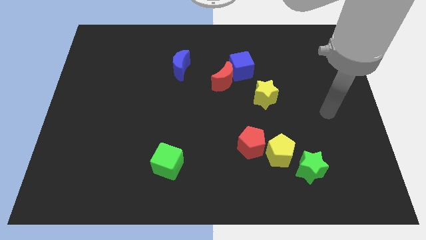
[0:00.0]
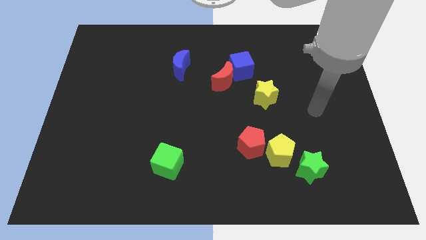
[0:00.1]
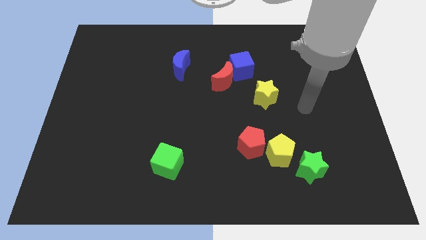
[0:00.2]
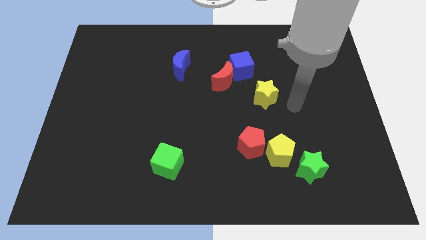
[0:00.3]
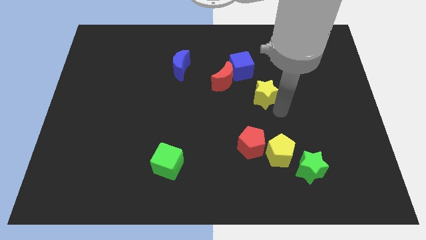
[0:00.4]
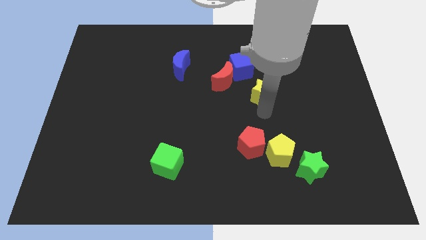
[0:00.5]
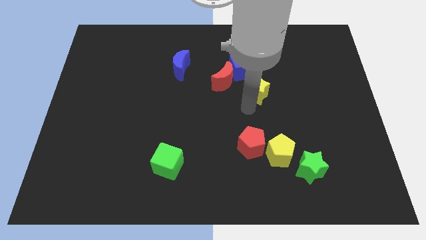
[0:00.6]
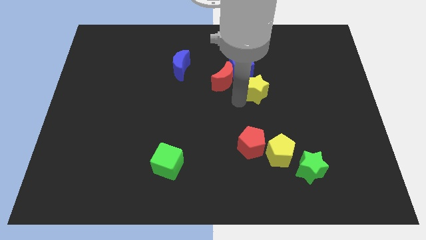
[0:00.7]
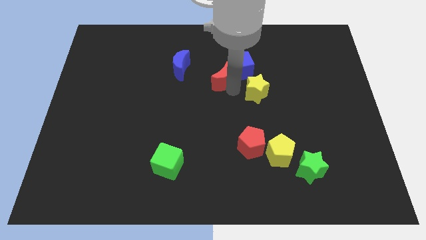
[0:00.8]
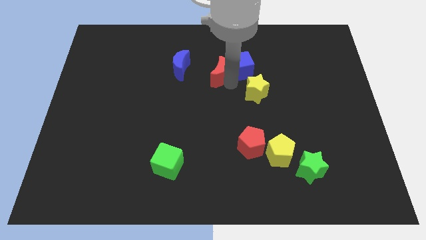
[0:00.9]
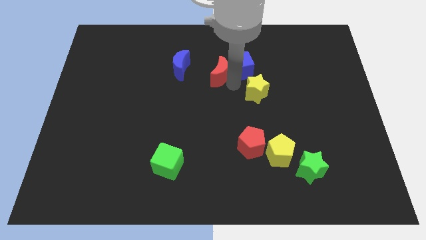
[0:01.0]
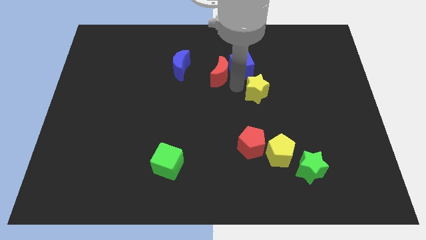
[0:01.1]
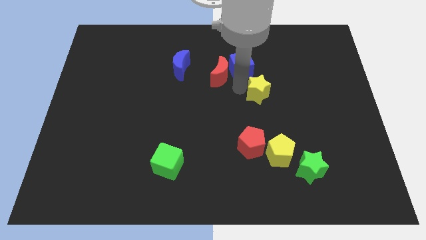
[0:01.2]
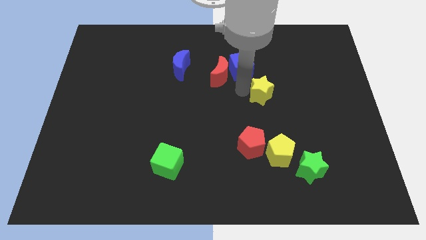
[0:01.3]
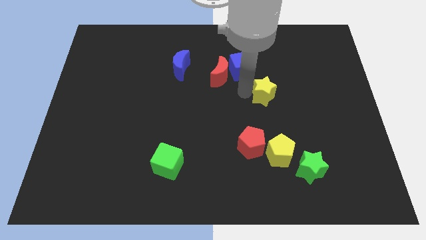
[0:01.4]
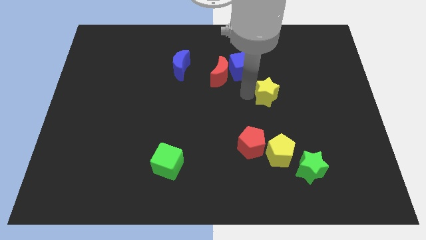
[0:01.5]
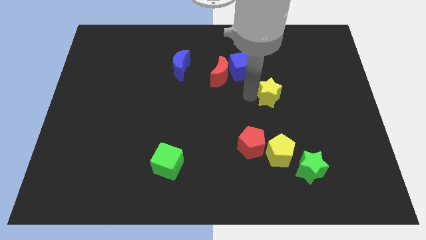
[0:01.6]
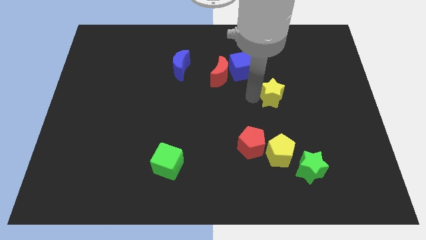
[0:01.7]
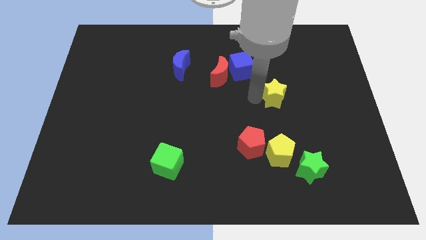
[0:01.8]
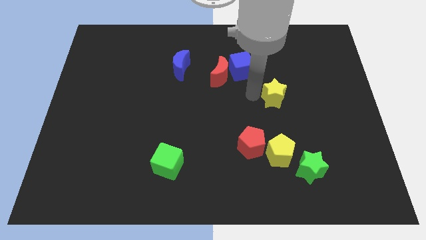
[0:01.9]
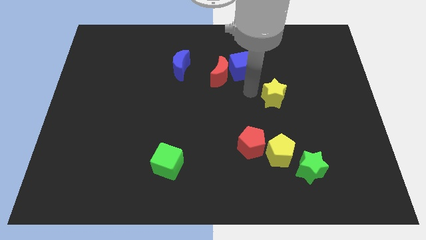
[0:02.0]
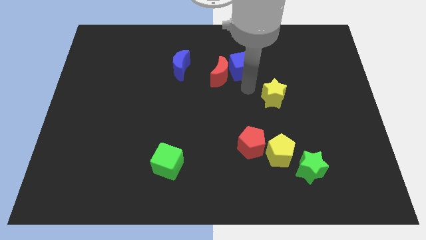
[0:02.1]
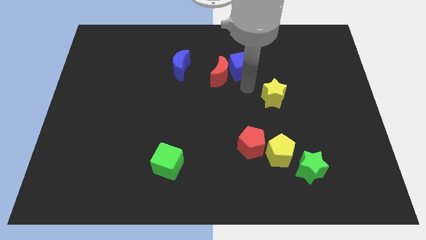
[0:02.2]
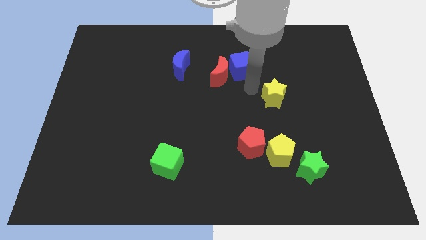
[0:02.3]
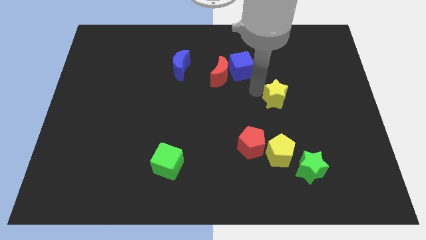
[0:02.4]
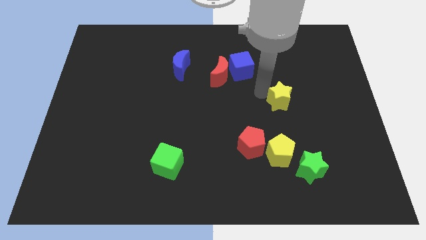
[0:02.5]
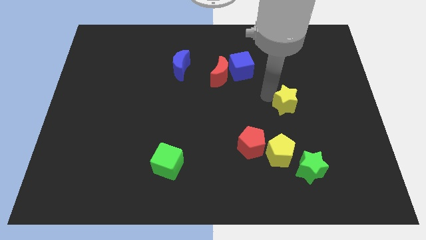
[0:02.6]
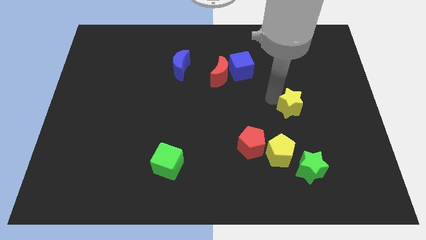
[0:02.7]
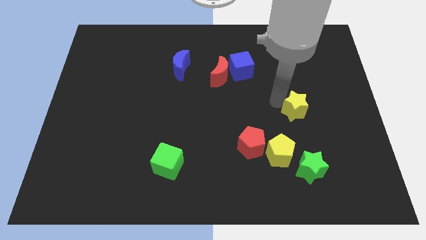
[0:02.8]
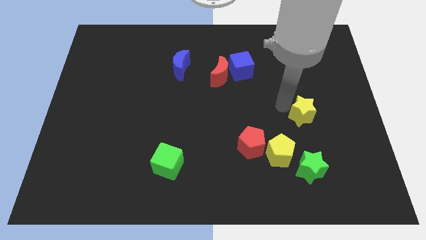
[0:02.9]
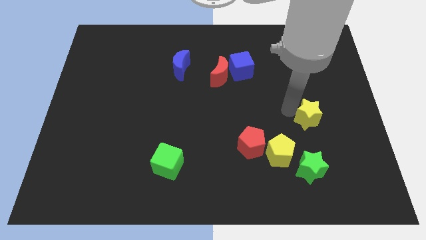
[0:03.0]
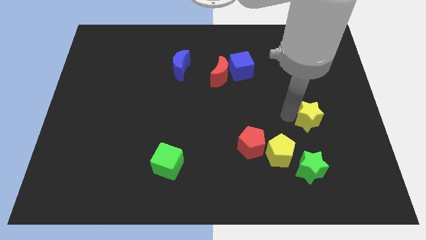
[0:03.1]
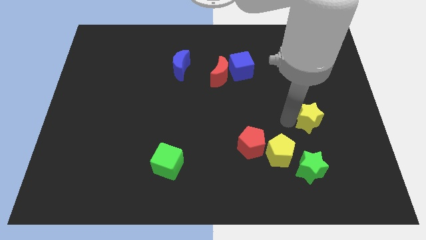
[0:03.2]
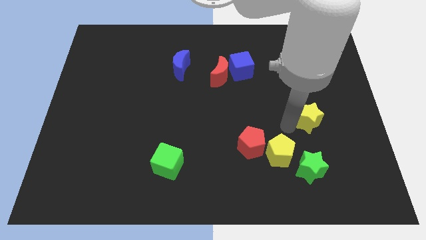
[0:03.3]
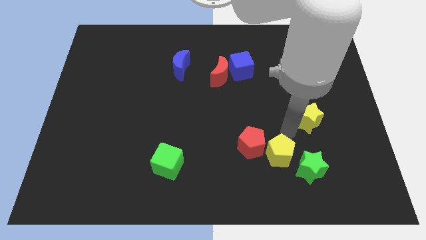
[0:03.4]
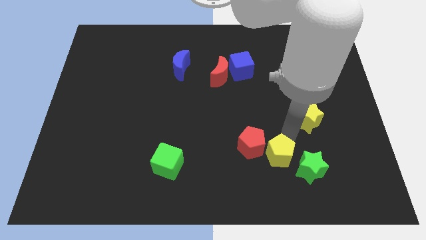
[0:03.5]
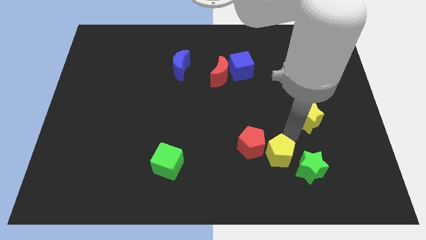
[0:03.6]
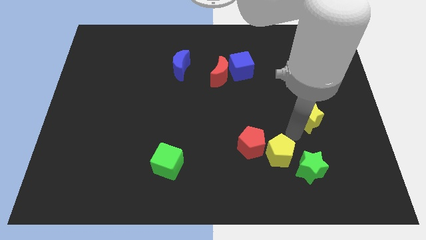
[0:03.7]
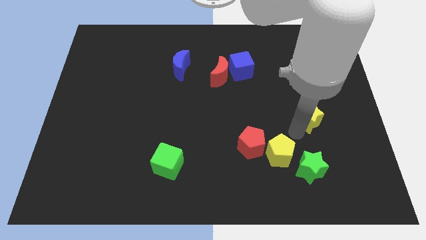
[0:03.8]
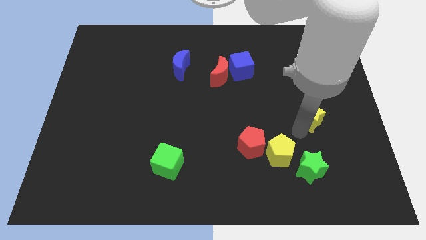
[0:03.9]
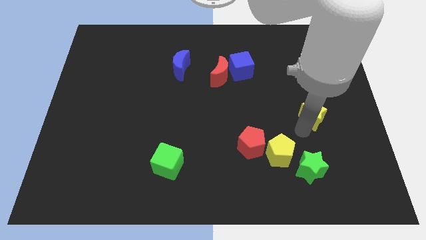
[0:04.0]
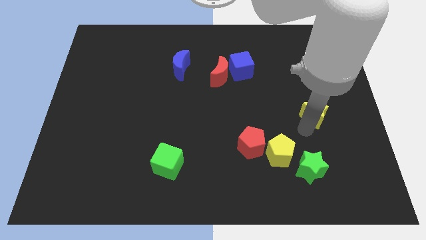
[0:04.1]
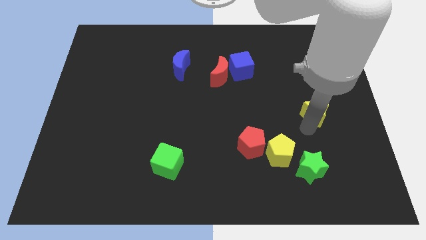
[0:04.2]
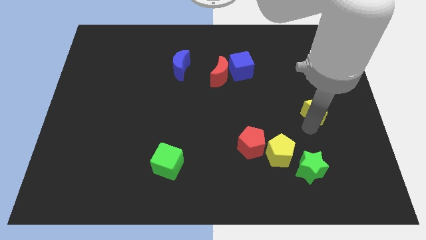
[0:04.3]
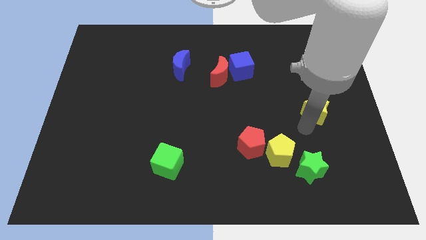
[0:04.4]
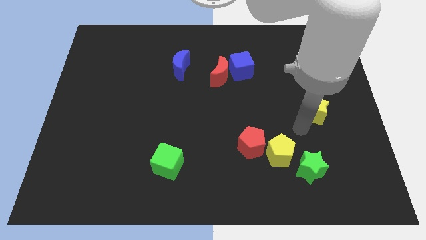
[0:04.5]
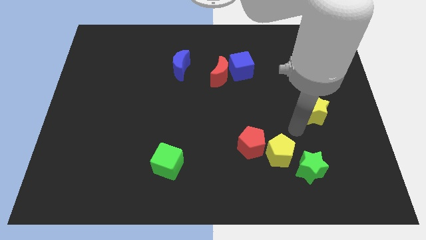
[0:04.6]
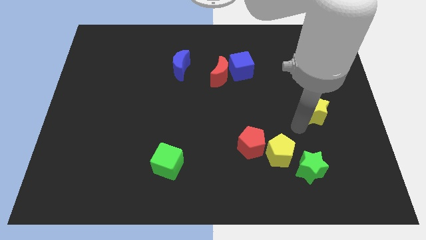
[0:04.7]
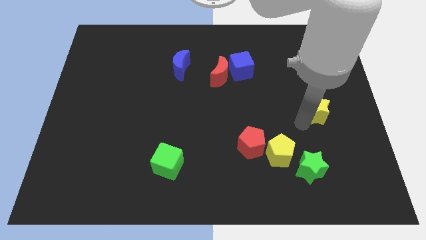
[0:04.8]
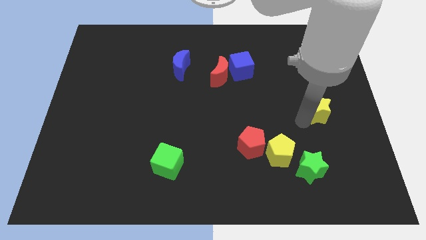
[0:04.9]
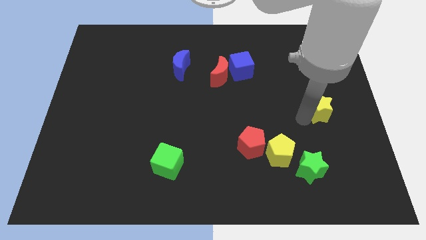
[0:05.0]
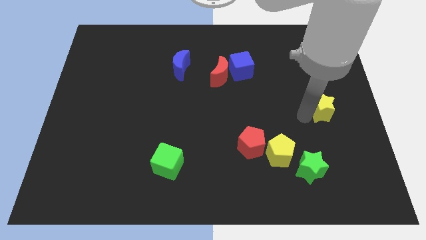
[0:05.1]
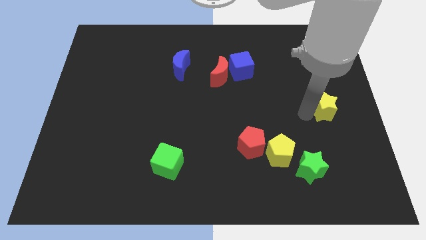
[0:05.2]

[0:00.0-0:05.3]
push the yellow star to the right side
